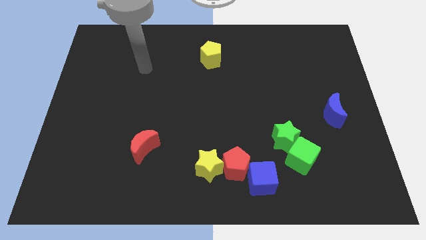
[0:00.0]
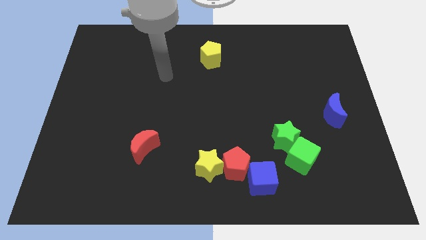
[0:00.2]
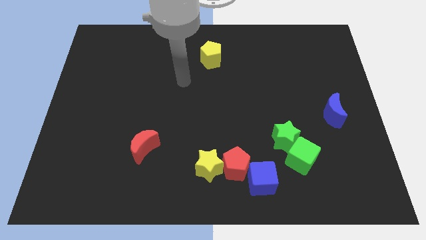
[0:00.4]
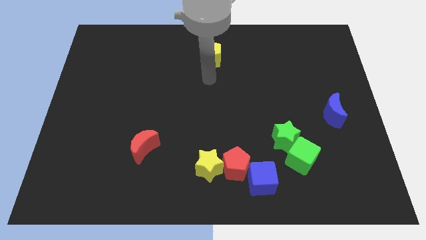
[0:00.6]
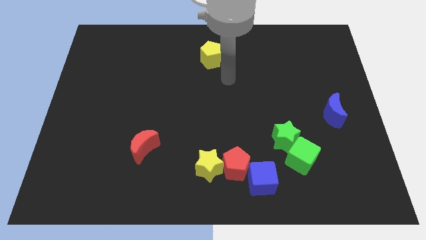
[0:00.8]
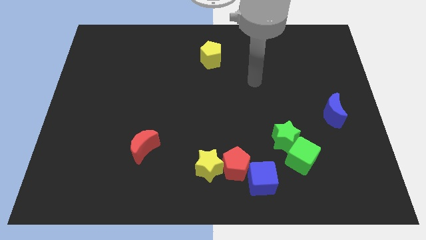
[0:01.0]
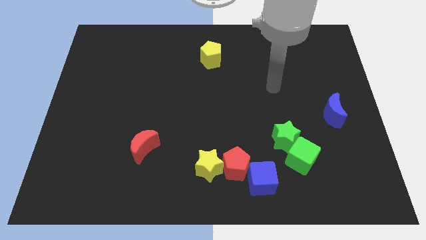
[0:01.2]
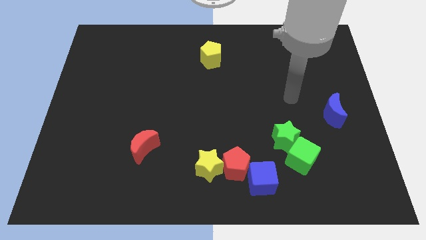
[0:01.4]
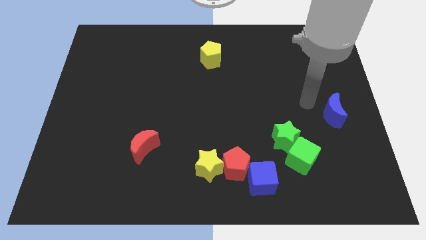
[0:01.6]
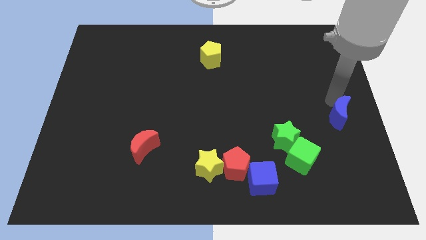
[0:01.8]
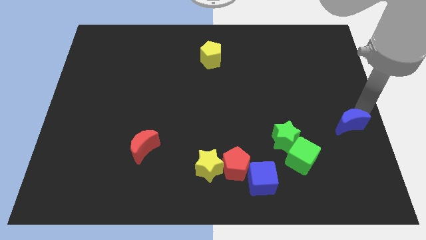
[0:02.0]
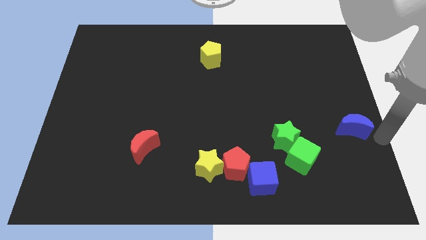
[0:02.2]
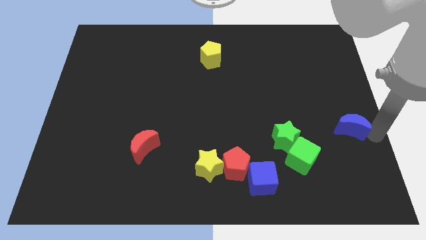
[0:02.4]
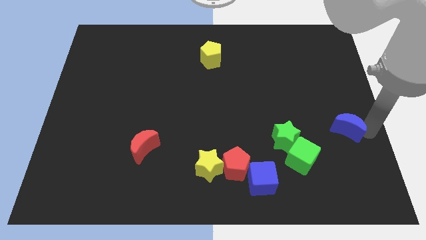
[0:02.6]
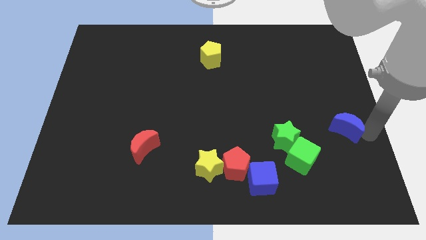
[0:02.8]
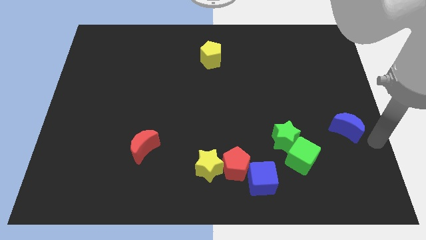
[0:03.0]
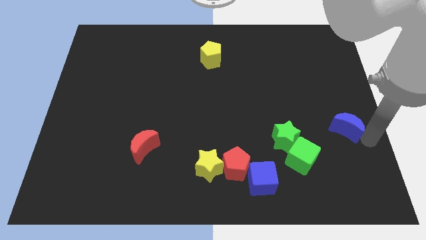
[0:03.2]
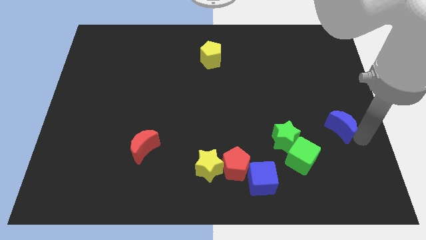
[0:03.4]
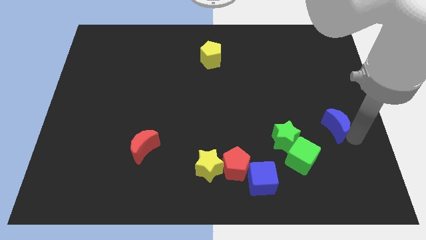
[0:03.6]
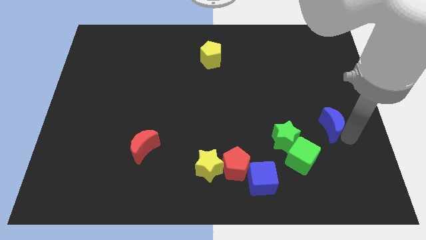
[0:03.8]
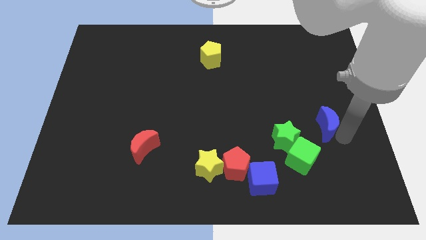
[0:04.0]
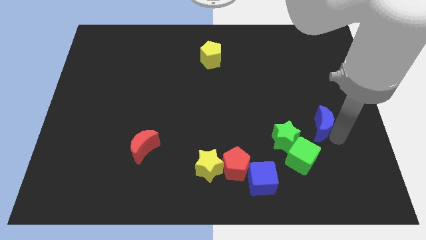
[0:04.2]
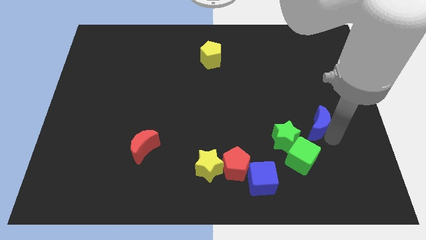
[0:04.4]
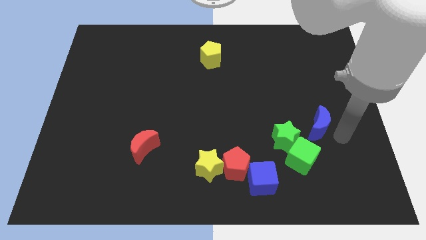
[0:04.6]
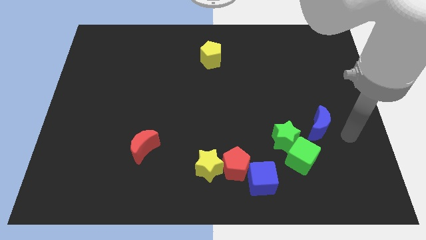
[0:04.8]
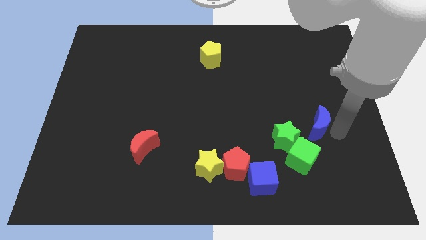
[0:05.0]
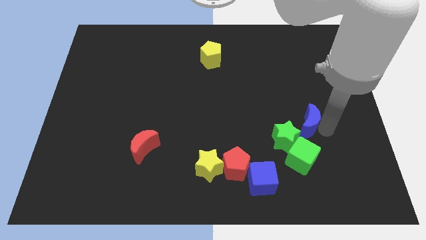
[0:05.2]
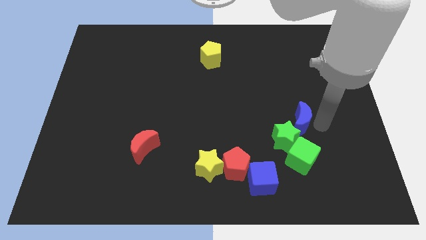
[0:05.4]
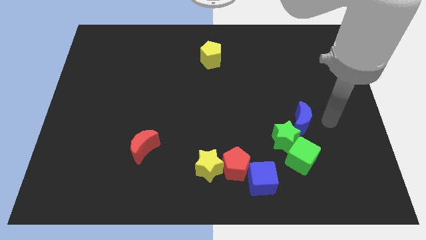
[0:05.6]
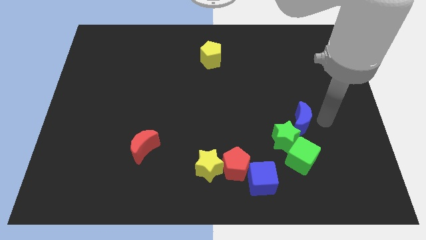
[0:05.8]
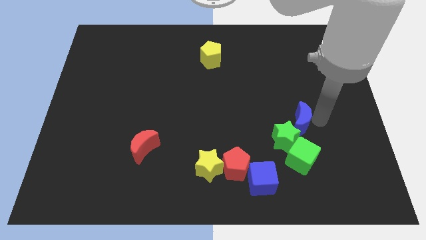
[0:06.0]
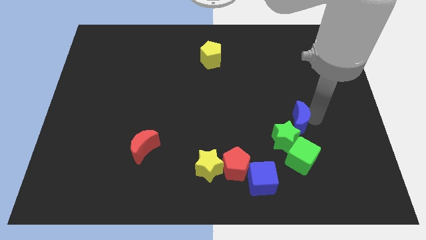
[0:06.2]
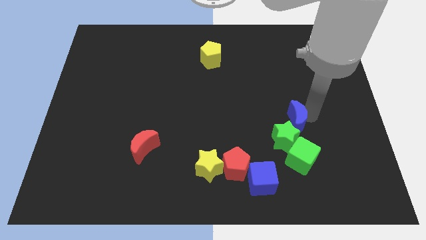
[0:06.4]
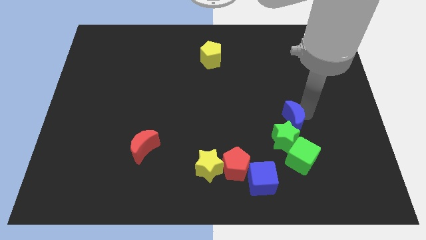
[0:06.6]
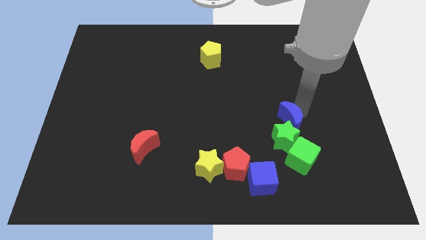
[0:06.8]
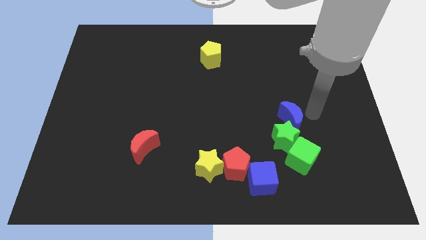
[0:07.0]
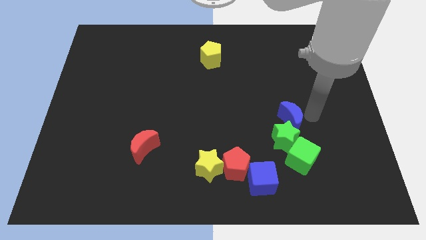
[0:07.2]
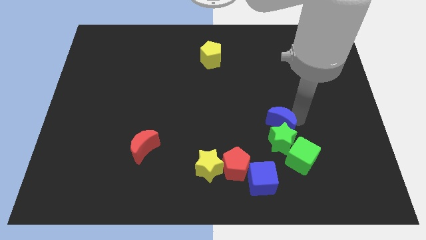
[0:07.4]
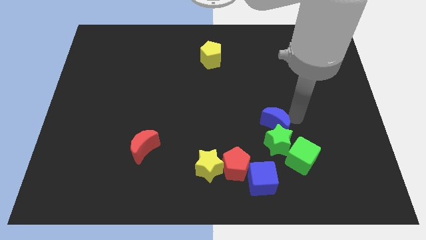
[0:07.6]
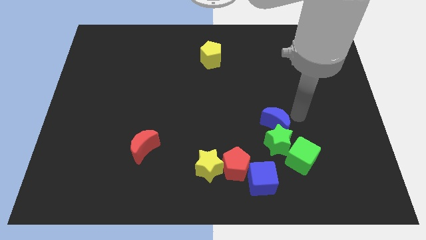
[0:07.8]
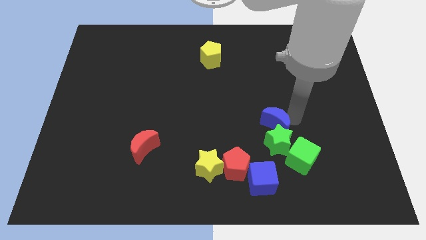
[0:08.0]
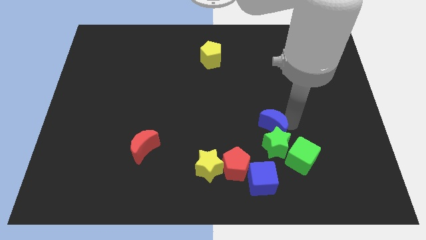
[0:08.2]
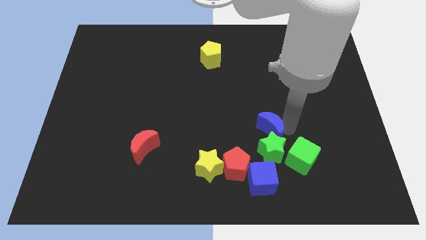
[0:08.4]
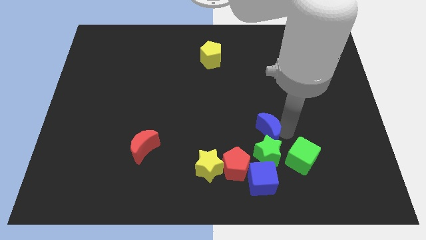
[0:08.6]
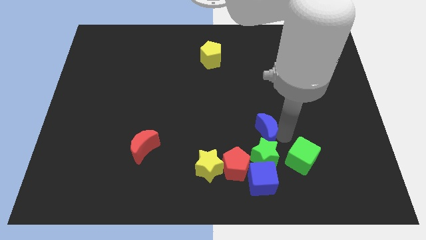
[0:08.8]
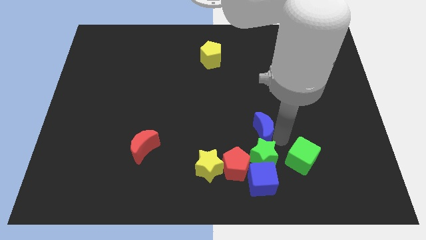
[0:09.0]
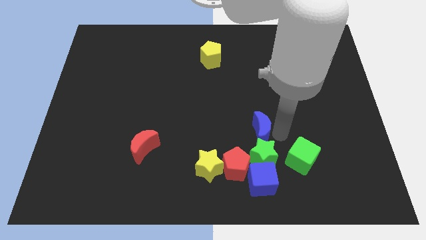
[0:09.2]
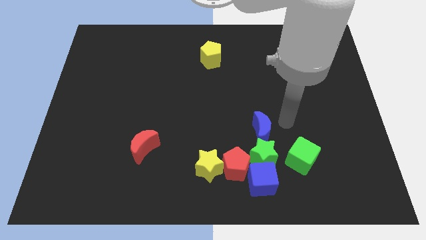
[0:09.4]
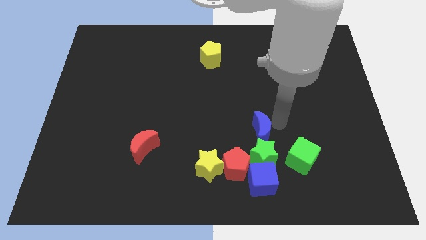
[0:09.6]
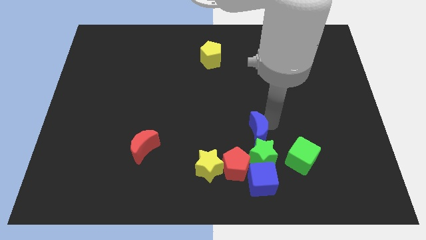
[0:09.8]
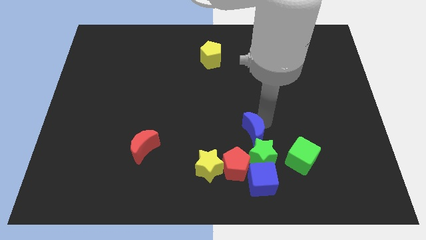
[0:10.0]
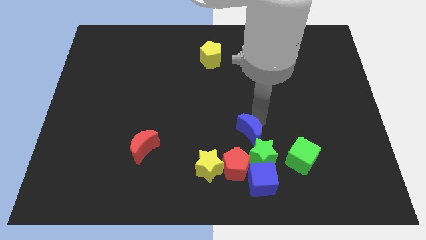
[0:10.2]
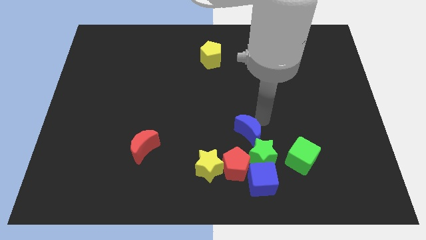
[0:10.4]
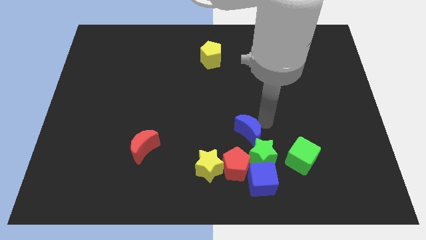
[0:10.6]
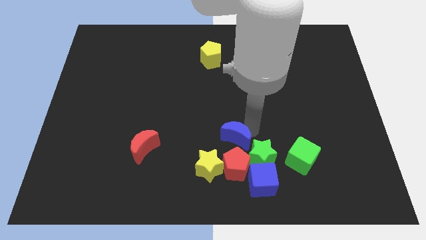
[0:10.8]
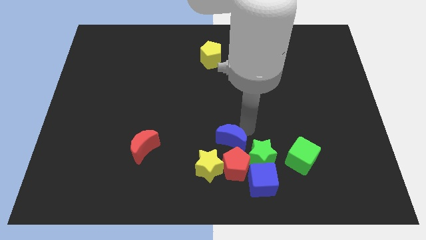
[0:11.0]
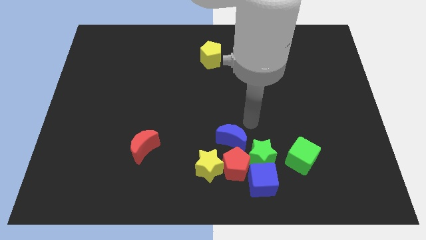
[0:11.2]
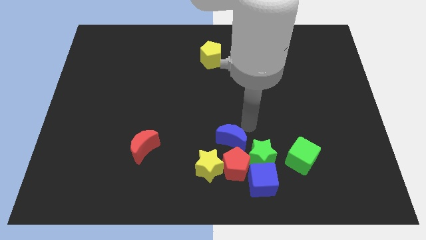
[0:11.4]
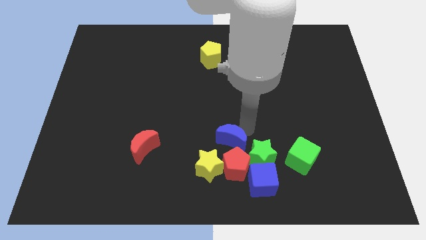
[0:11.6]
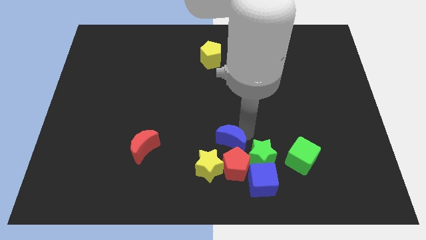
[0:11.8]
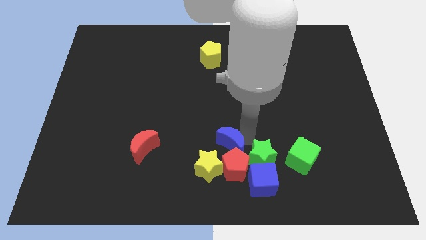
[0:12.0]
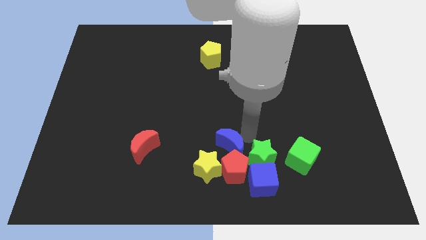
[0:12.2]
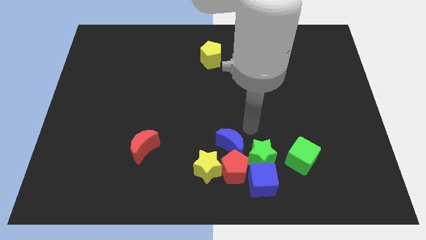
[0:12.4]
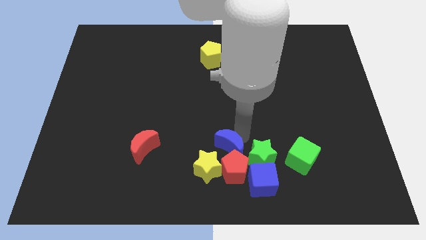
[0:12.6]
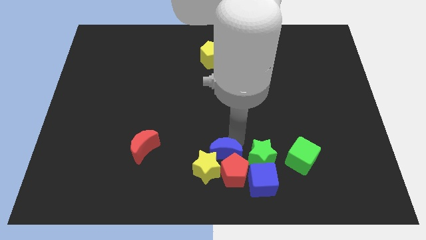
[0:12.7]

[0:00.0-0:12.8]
put the blue moon next to the yellow star

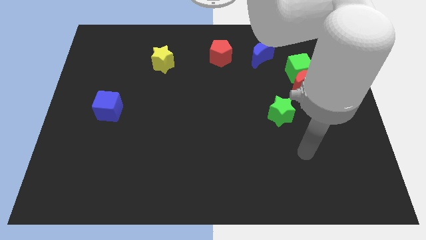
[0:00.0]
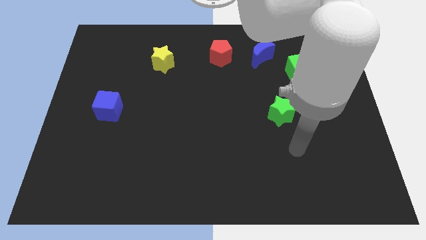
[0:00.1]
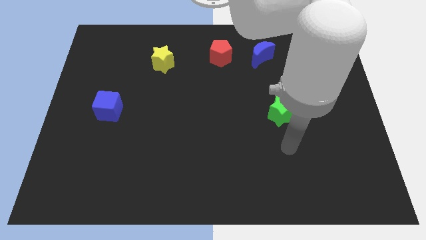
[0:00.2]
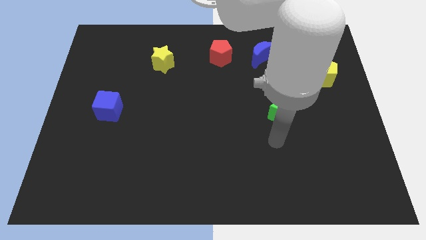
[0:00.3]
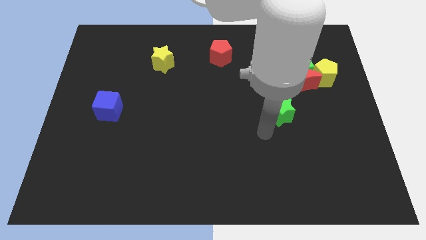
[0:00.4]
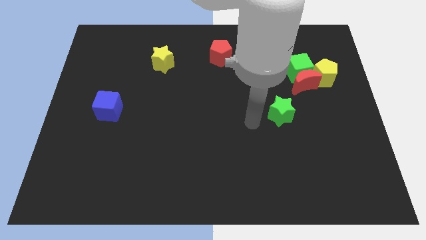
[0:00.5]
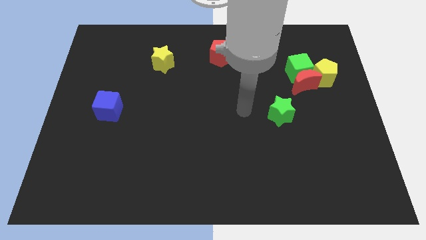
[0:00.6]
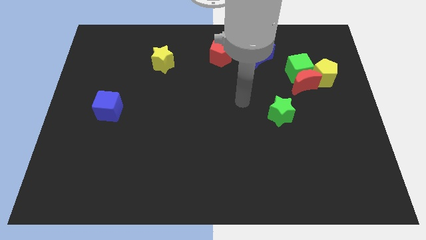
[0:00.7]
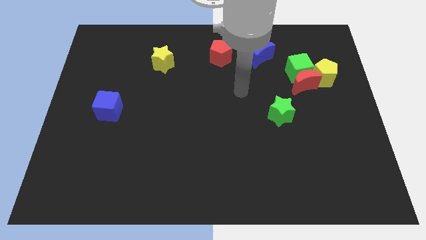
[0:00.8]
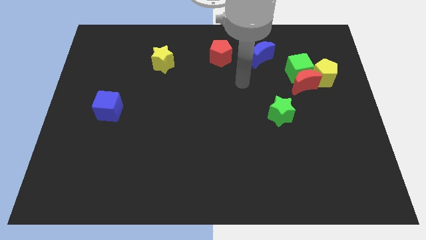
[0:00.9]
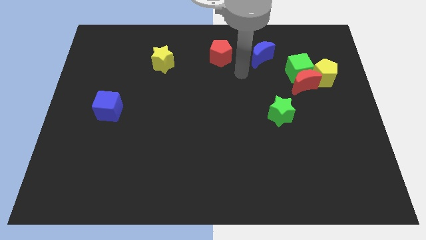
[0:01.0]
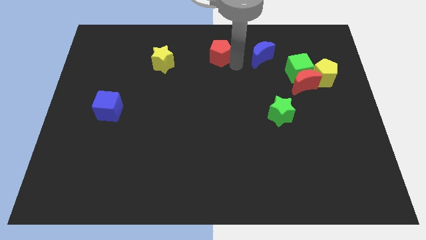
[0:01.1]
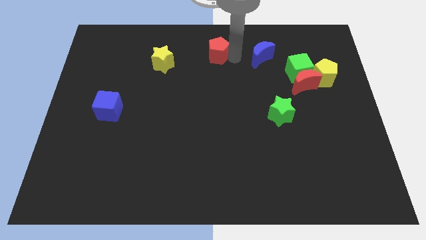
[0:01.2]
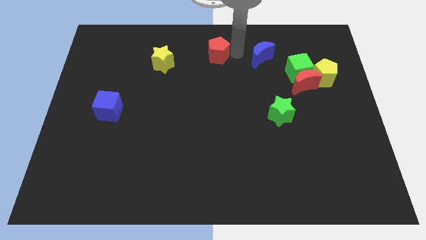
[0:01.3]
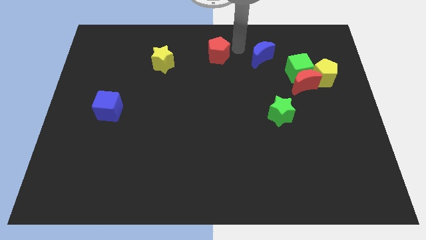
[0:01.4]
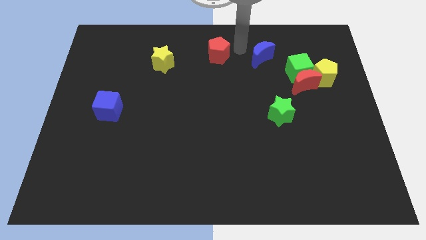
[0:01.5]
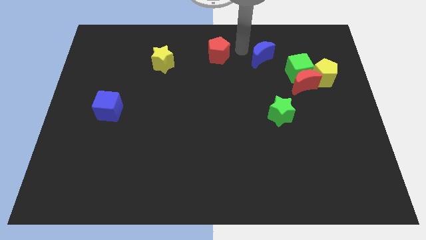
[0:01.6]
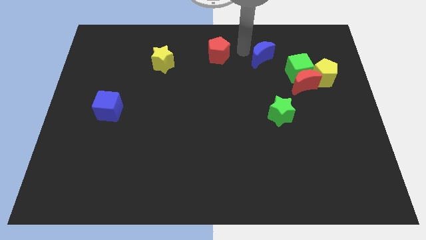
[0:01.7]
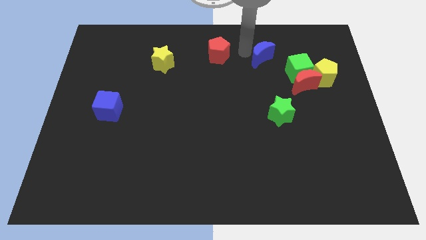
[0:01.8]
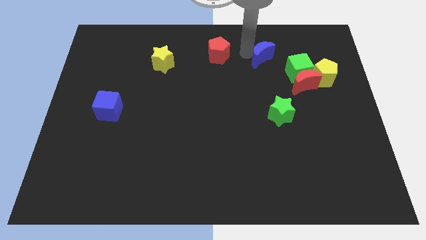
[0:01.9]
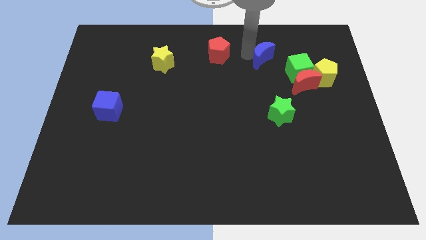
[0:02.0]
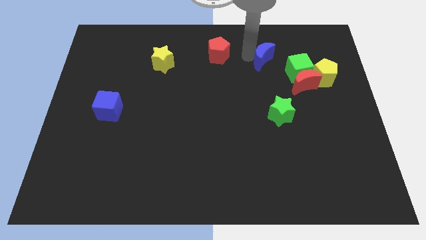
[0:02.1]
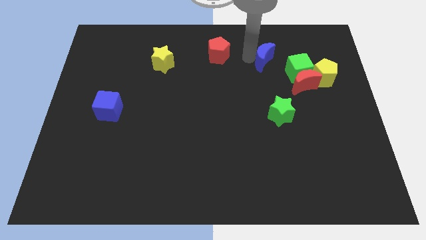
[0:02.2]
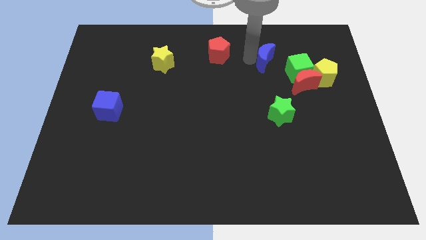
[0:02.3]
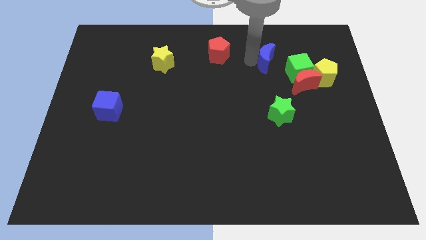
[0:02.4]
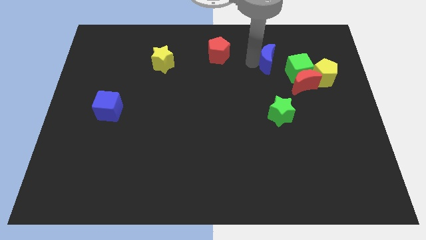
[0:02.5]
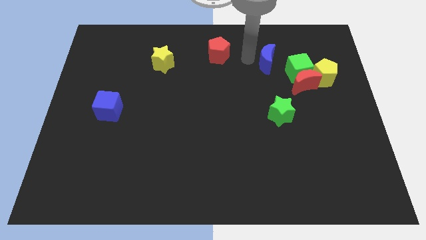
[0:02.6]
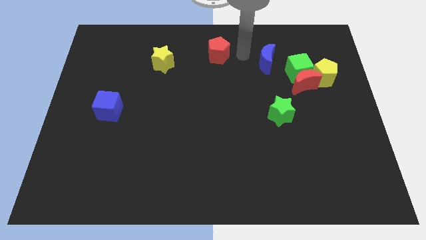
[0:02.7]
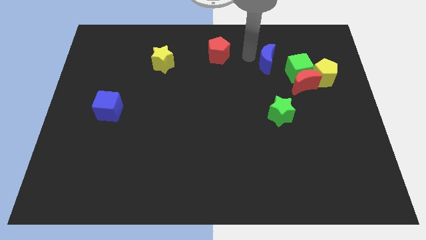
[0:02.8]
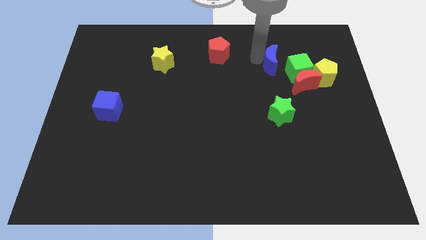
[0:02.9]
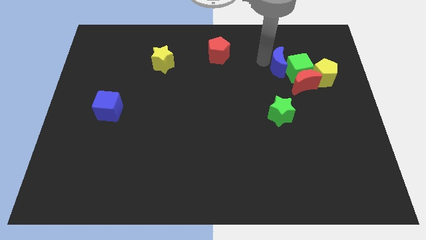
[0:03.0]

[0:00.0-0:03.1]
push the blue moon to the green cube
